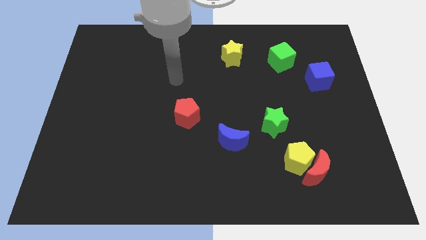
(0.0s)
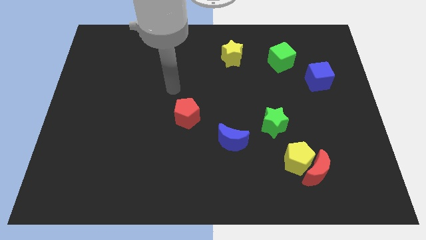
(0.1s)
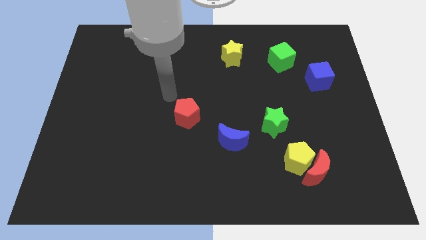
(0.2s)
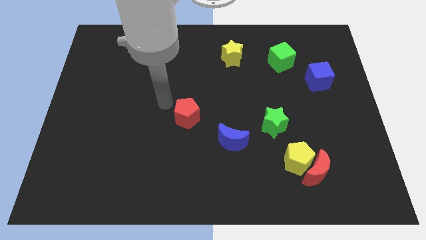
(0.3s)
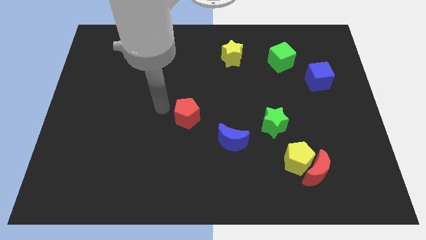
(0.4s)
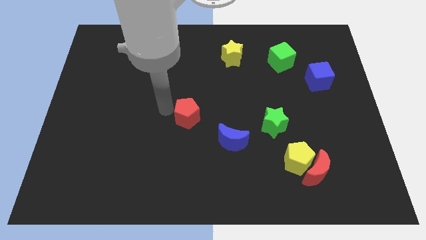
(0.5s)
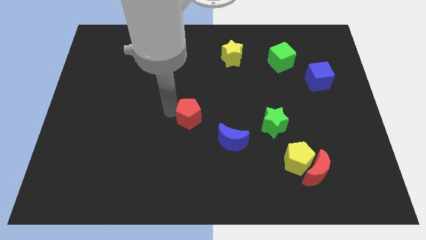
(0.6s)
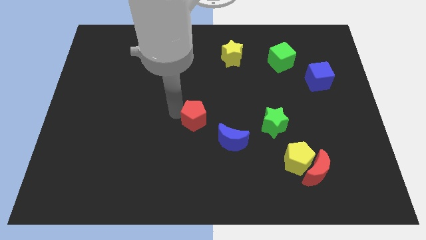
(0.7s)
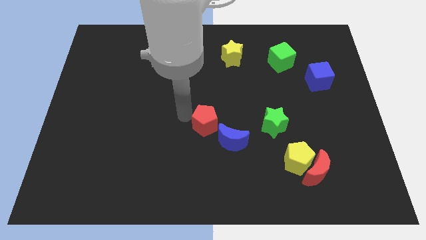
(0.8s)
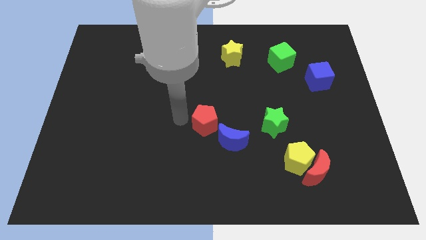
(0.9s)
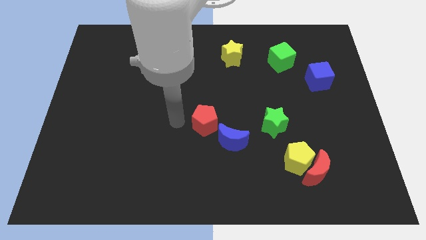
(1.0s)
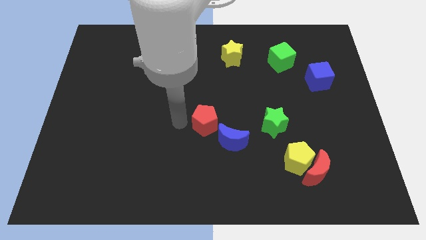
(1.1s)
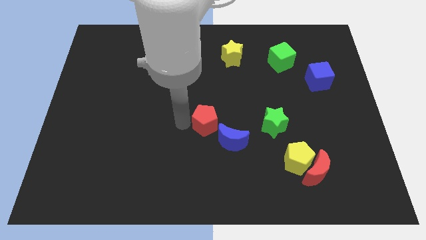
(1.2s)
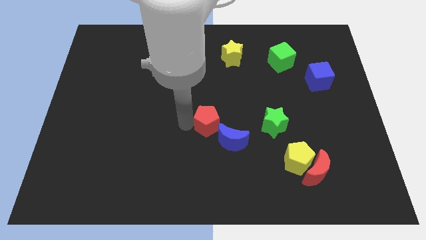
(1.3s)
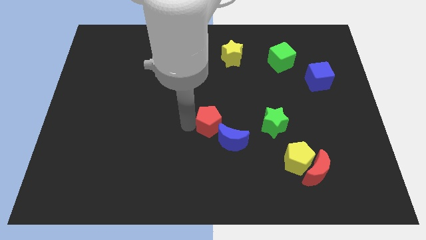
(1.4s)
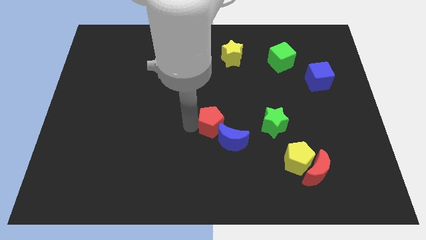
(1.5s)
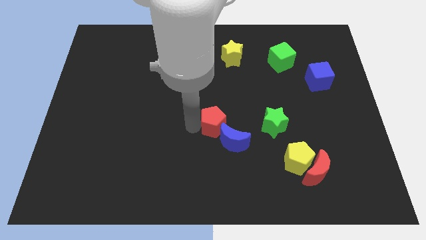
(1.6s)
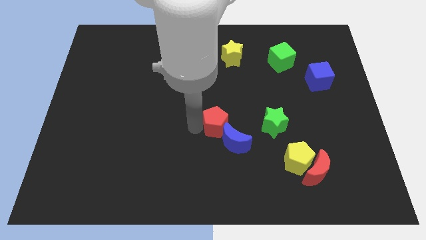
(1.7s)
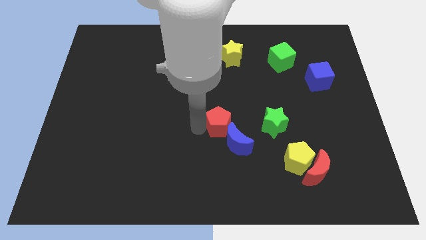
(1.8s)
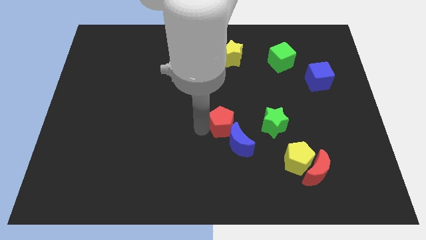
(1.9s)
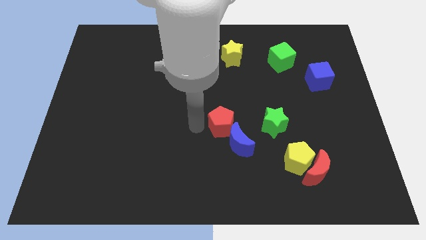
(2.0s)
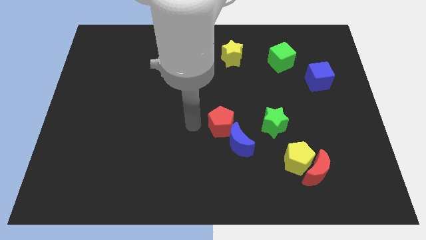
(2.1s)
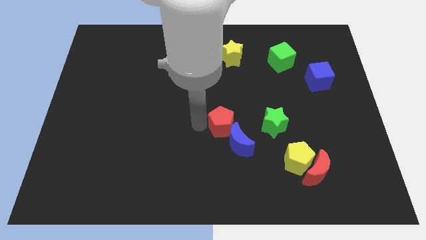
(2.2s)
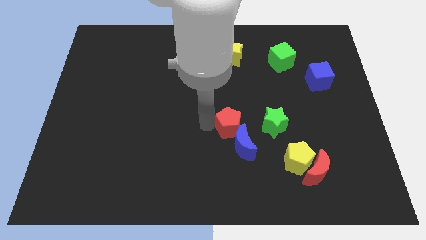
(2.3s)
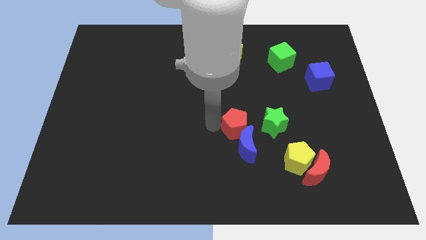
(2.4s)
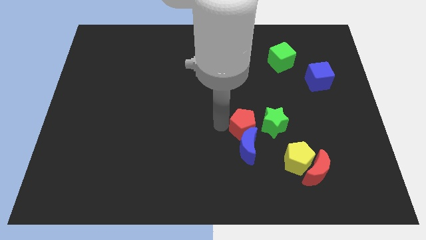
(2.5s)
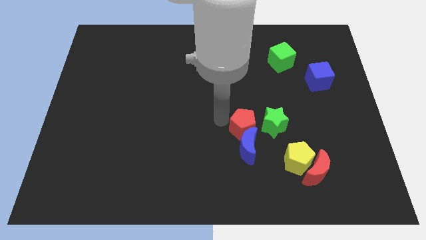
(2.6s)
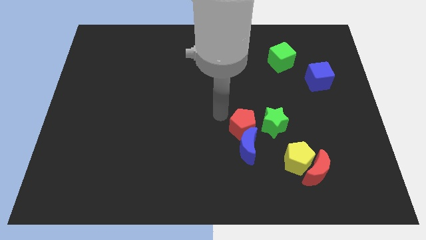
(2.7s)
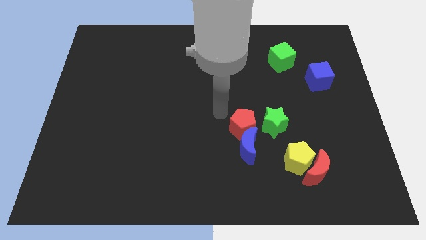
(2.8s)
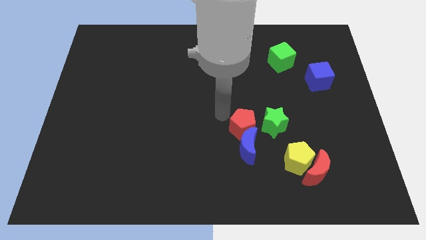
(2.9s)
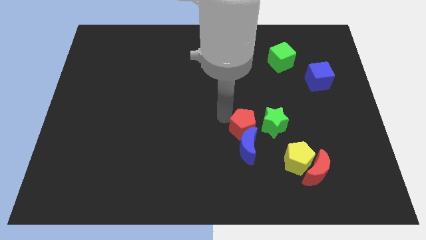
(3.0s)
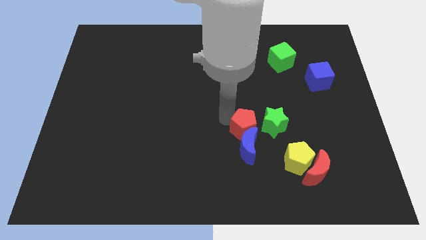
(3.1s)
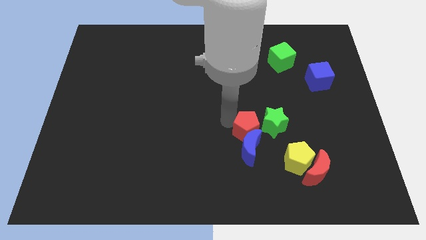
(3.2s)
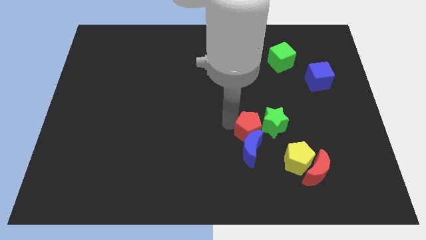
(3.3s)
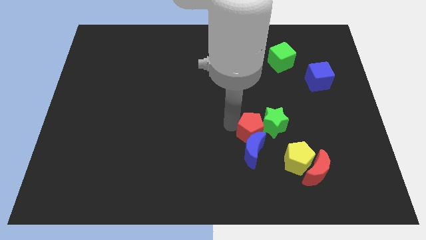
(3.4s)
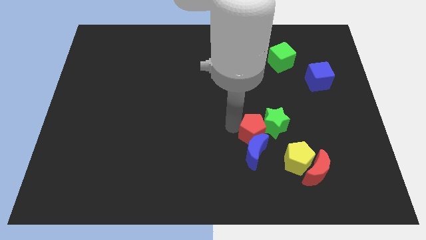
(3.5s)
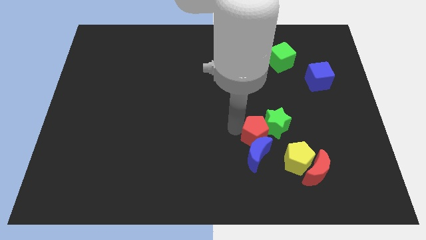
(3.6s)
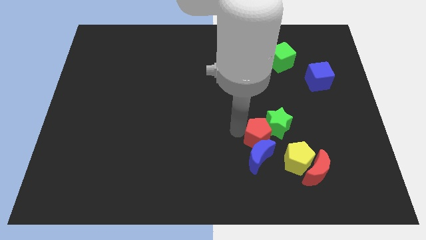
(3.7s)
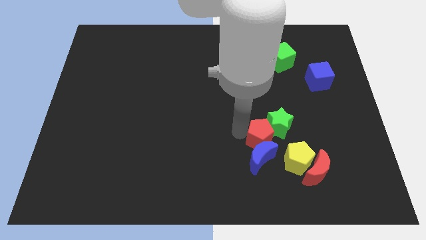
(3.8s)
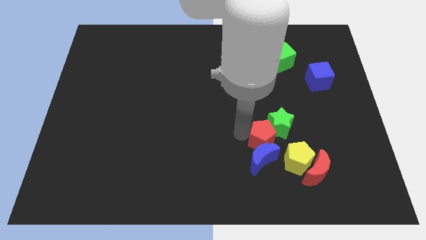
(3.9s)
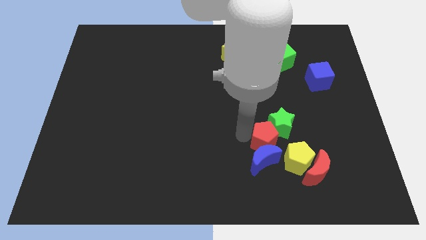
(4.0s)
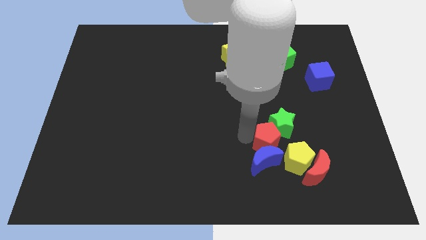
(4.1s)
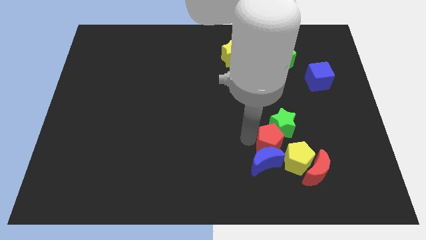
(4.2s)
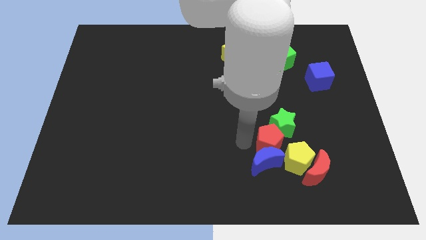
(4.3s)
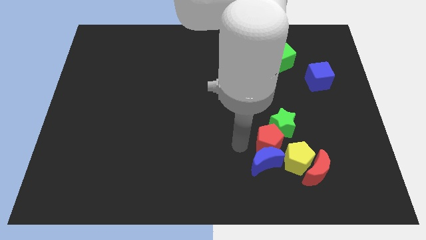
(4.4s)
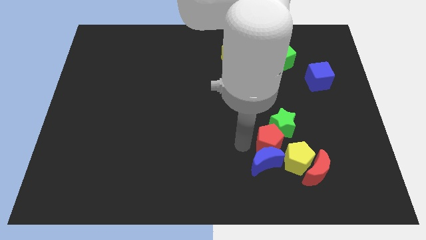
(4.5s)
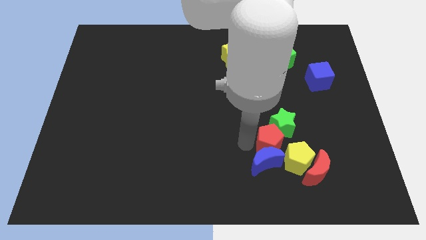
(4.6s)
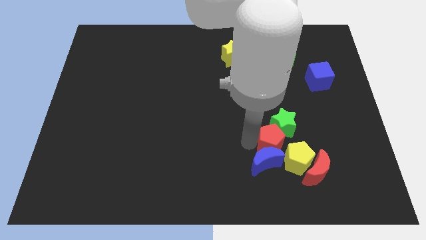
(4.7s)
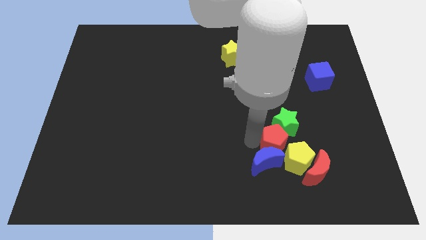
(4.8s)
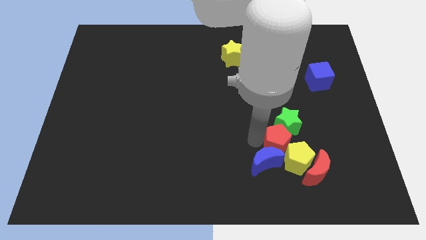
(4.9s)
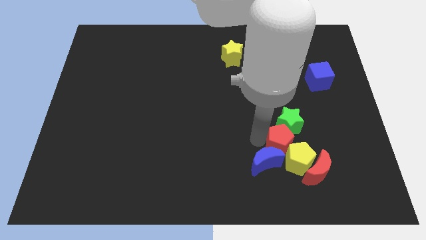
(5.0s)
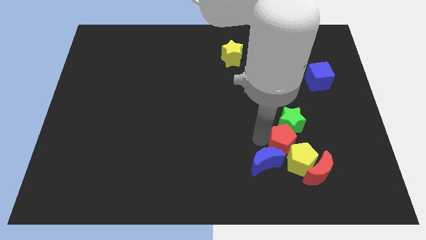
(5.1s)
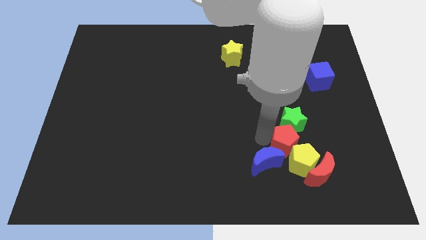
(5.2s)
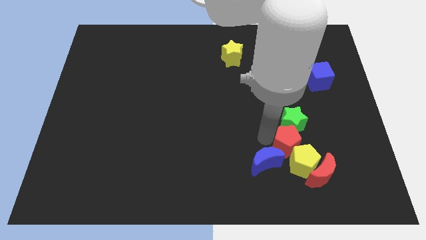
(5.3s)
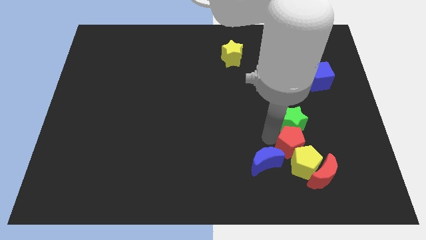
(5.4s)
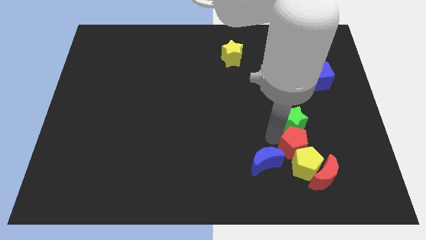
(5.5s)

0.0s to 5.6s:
move the red pentagon to the top right side of the yellow pentagon

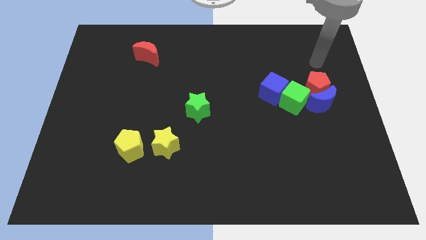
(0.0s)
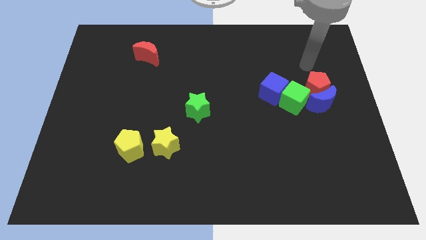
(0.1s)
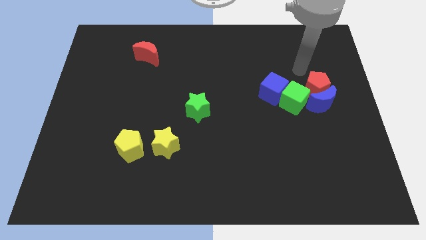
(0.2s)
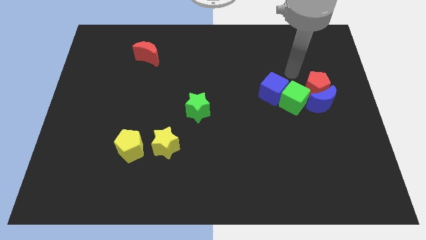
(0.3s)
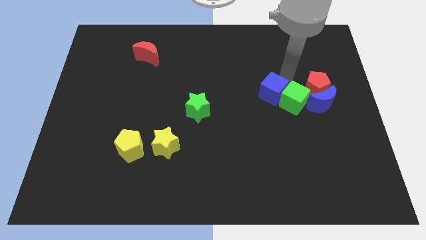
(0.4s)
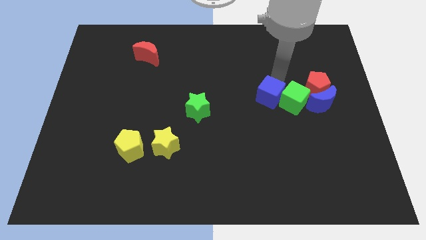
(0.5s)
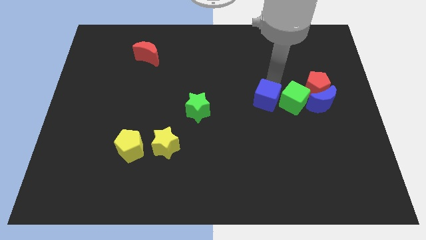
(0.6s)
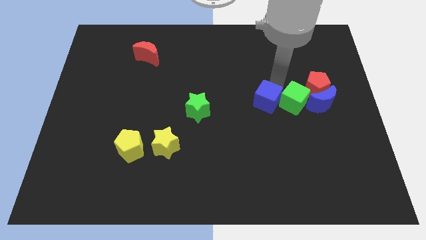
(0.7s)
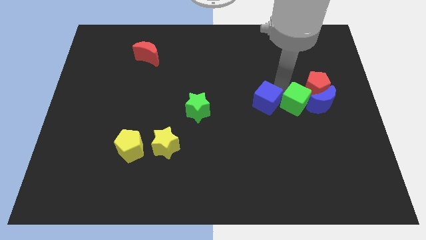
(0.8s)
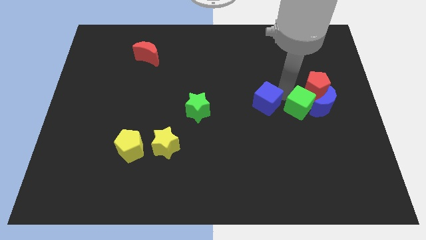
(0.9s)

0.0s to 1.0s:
put the green cube below the red pentagon

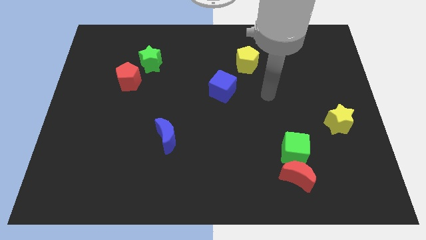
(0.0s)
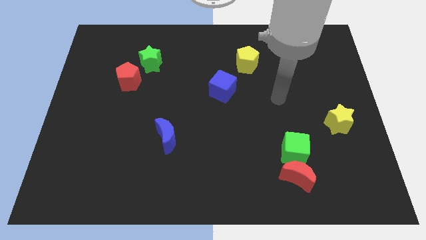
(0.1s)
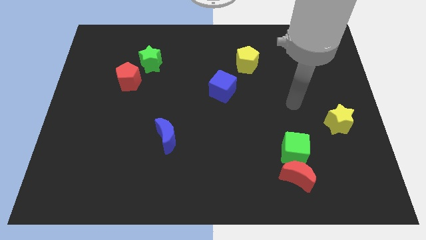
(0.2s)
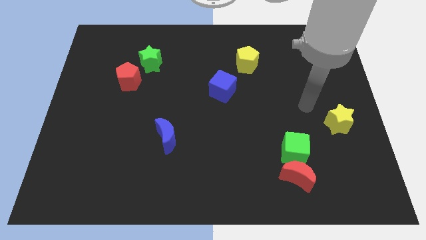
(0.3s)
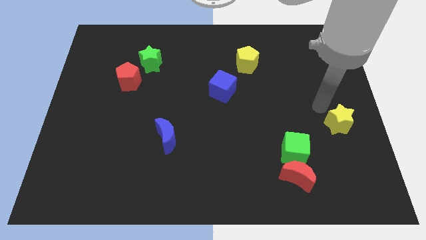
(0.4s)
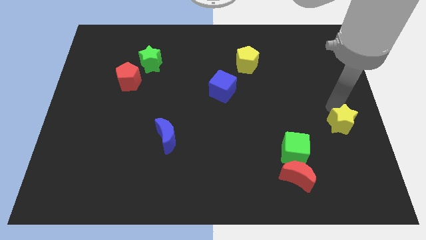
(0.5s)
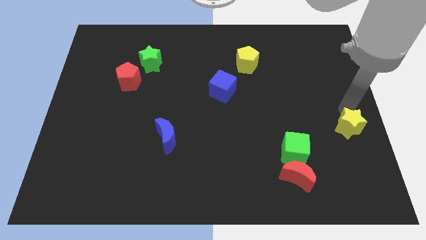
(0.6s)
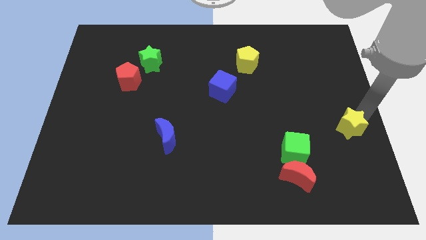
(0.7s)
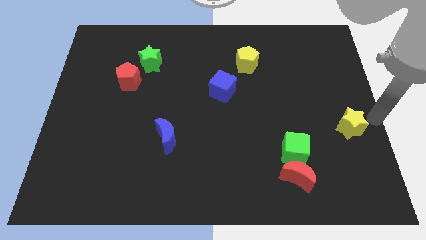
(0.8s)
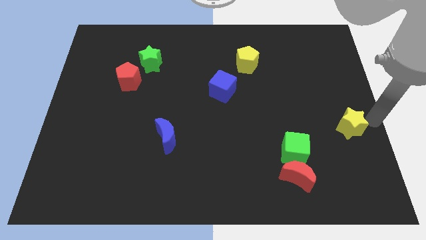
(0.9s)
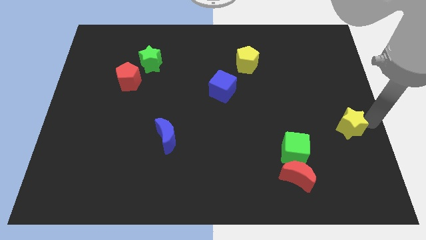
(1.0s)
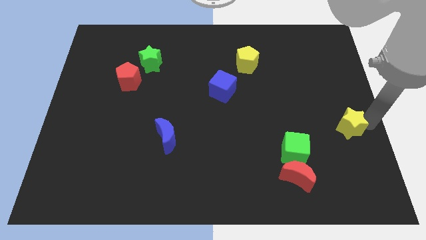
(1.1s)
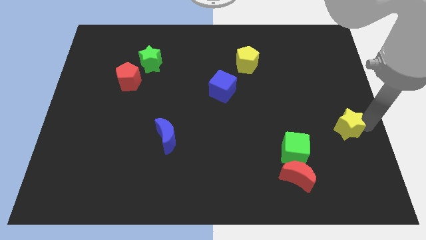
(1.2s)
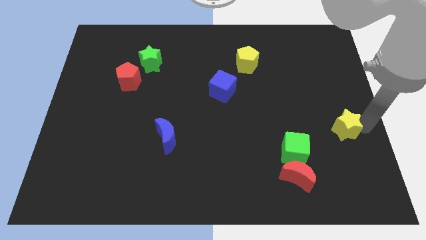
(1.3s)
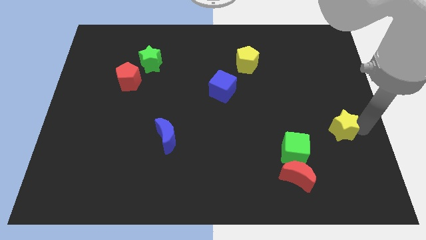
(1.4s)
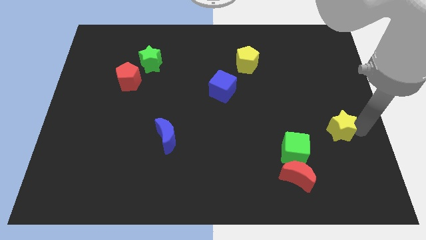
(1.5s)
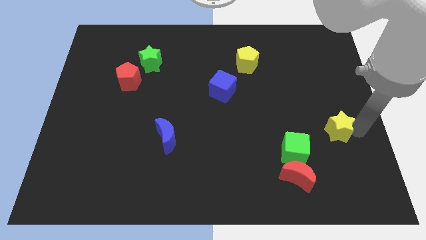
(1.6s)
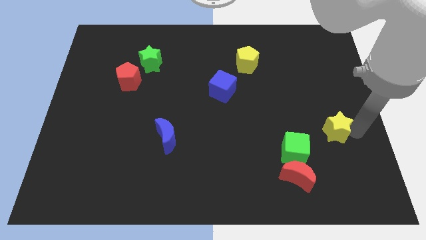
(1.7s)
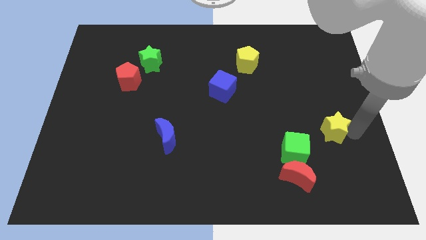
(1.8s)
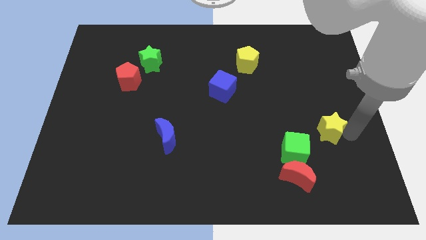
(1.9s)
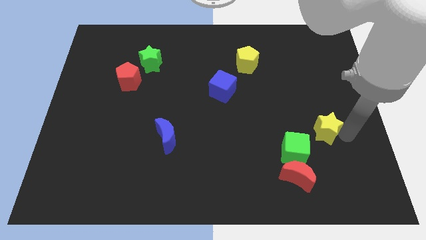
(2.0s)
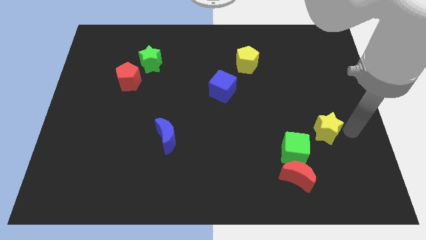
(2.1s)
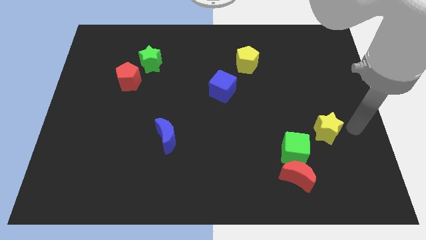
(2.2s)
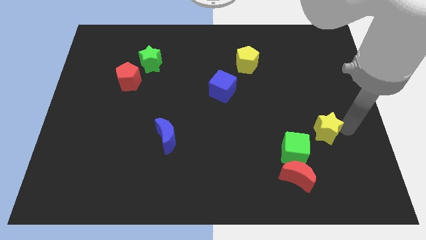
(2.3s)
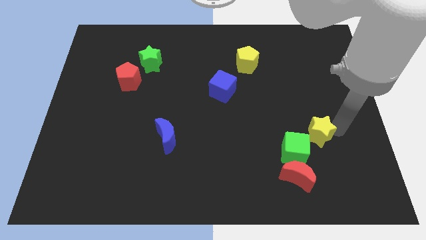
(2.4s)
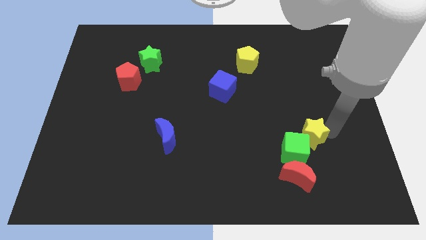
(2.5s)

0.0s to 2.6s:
put the yellow star to the top side of the red moon
